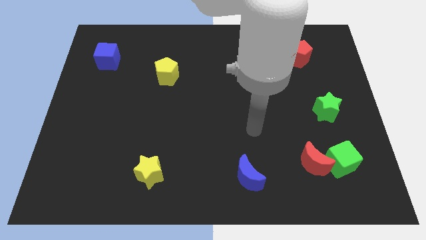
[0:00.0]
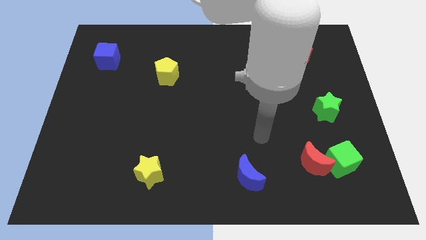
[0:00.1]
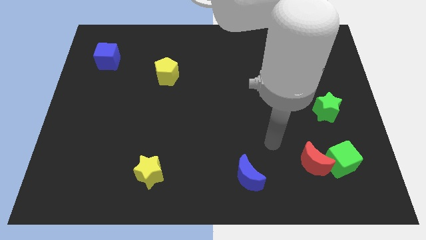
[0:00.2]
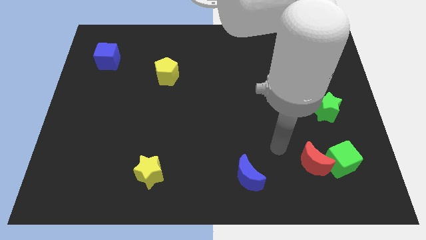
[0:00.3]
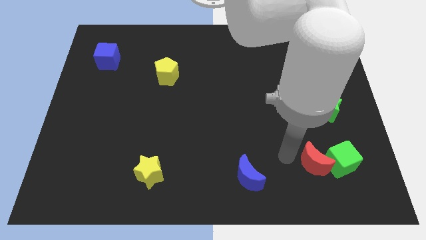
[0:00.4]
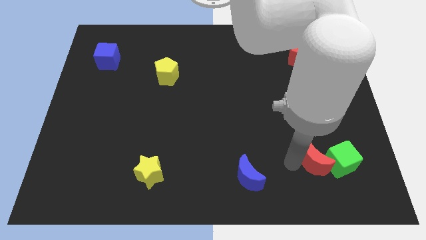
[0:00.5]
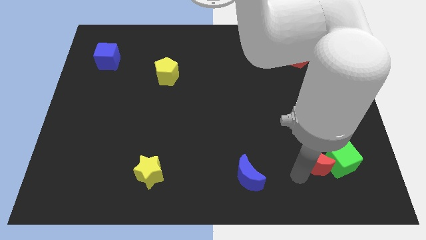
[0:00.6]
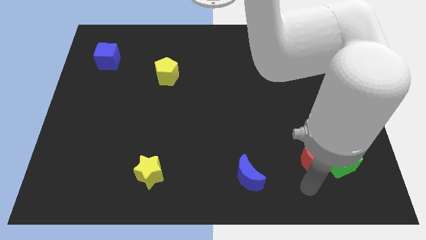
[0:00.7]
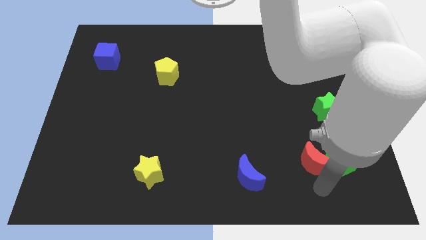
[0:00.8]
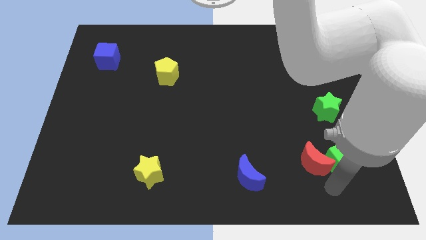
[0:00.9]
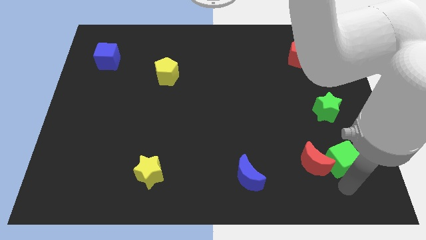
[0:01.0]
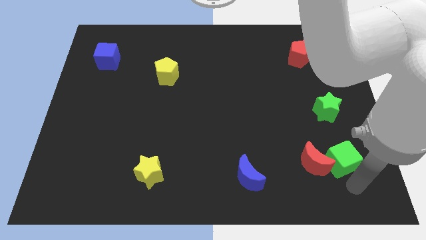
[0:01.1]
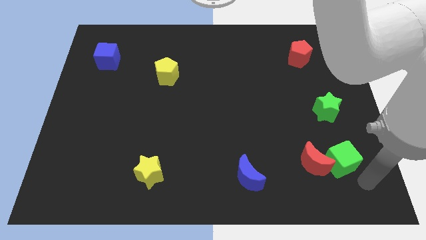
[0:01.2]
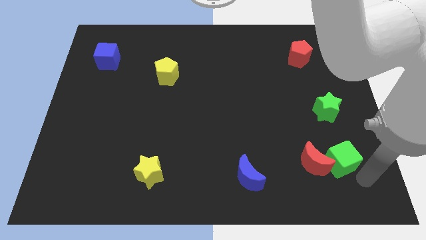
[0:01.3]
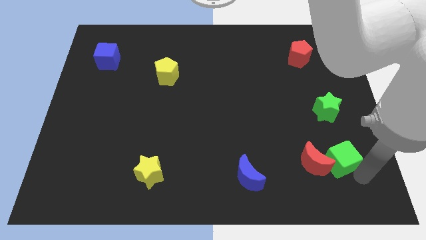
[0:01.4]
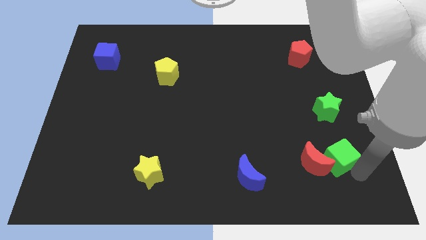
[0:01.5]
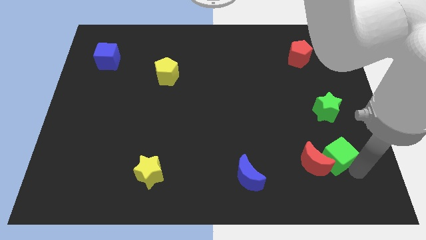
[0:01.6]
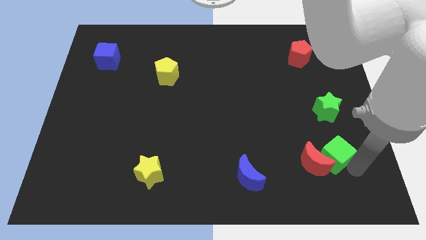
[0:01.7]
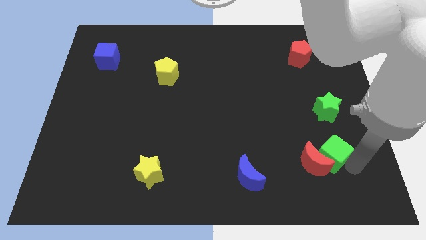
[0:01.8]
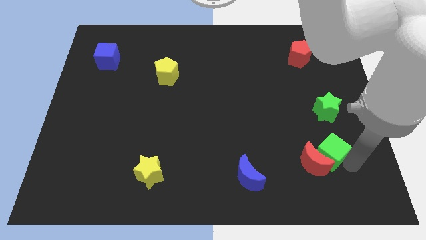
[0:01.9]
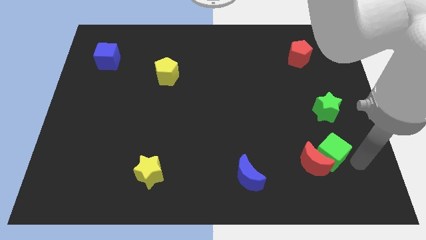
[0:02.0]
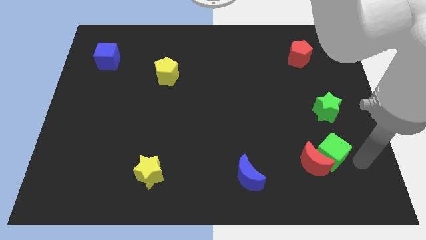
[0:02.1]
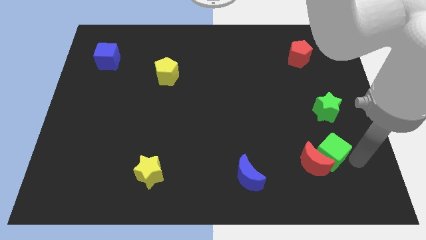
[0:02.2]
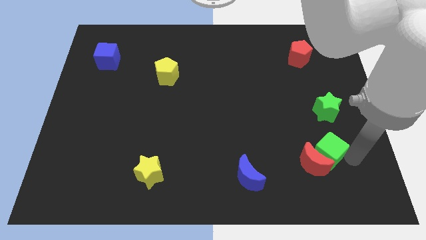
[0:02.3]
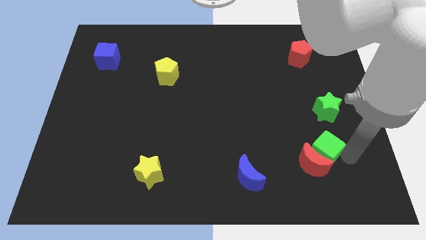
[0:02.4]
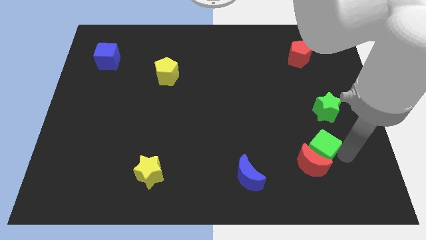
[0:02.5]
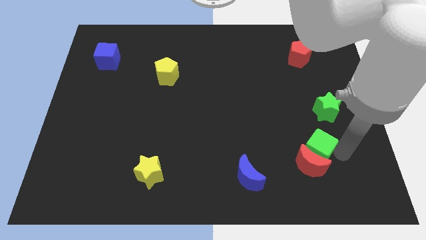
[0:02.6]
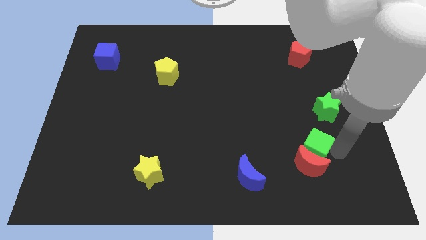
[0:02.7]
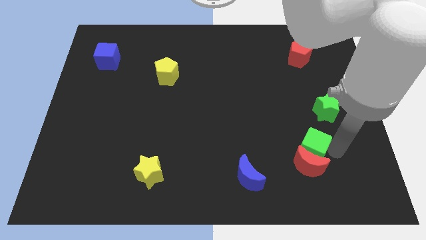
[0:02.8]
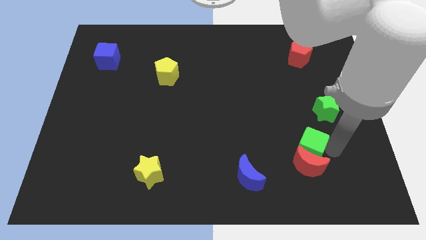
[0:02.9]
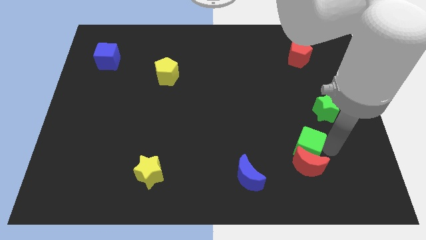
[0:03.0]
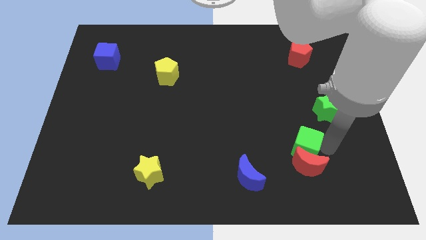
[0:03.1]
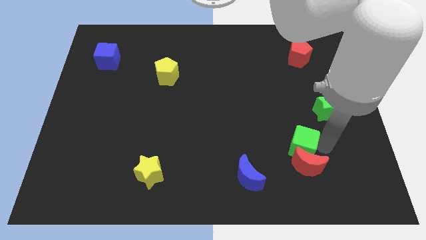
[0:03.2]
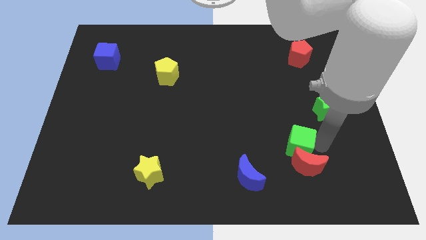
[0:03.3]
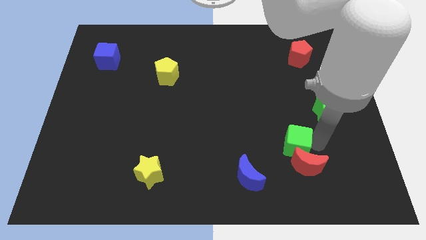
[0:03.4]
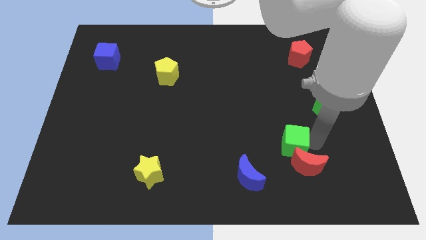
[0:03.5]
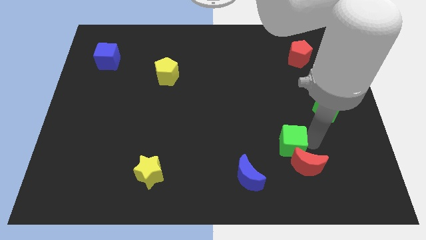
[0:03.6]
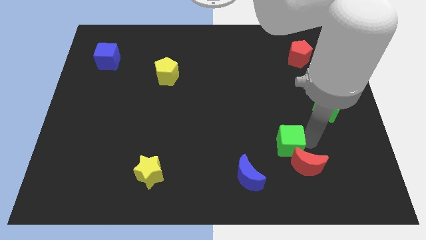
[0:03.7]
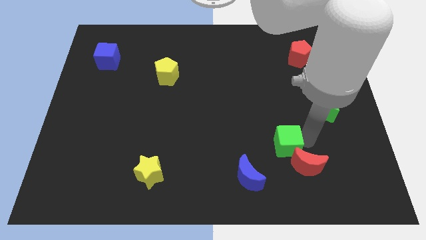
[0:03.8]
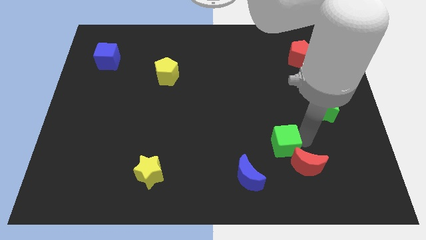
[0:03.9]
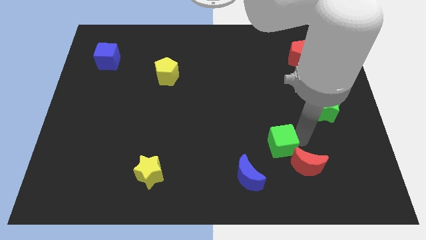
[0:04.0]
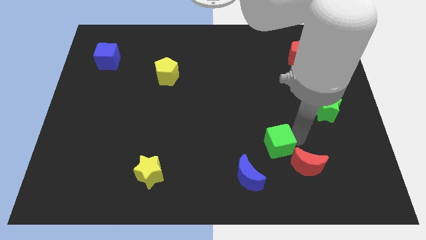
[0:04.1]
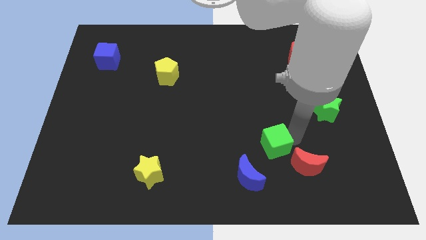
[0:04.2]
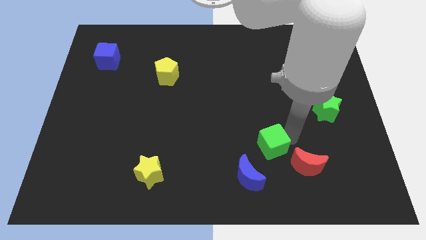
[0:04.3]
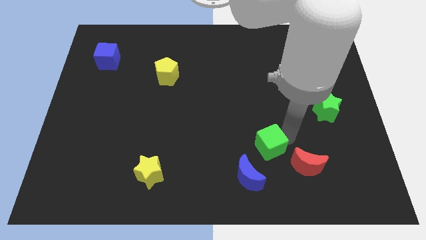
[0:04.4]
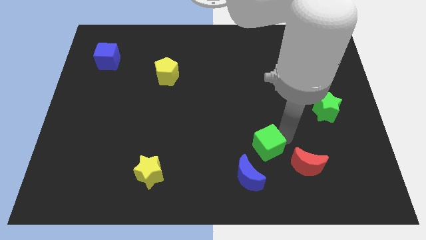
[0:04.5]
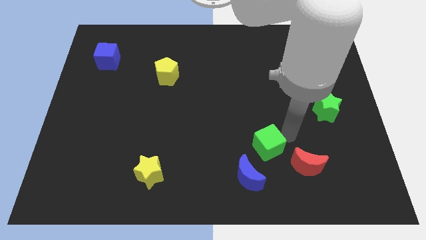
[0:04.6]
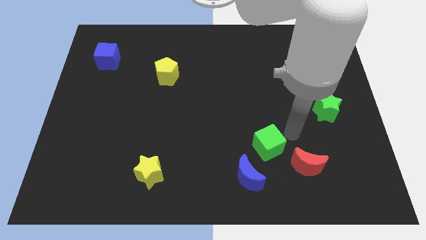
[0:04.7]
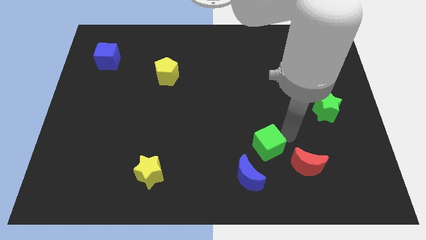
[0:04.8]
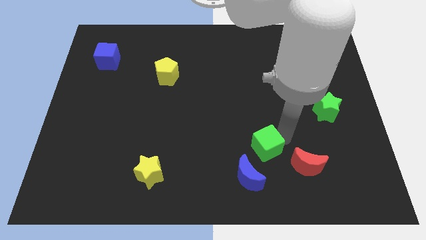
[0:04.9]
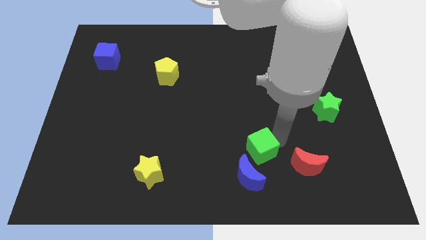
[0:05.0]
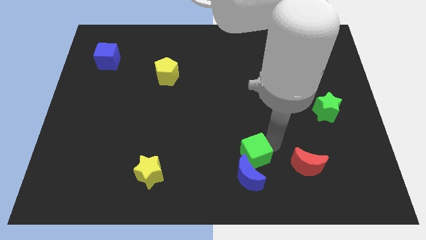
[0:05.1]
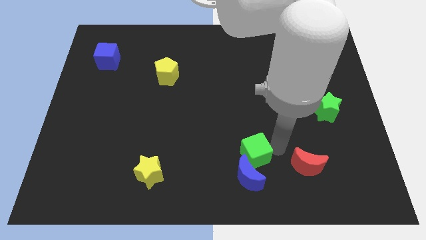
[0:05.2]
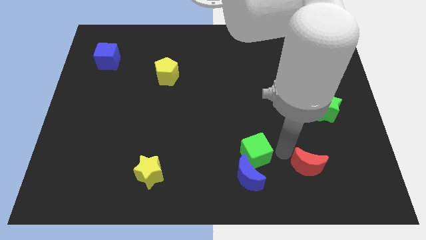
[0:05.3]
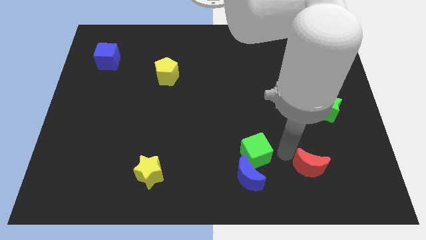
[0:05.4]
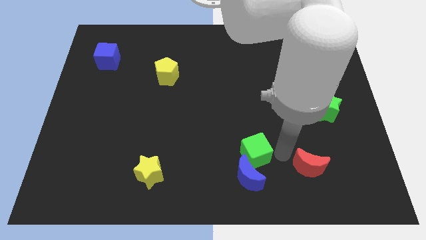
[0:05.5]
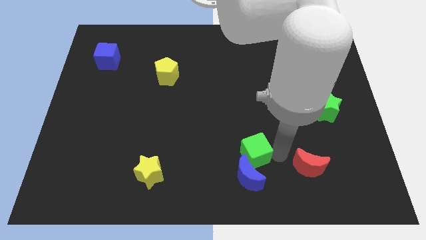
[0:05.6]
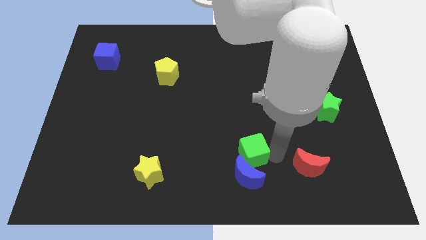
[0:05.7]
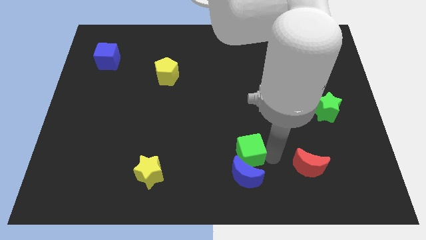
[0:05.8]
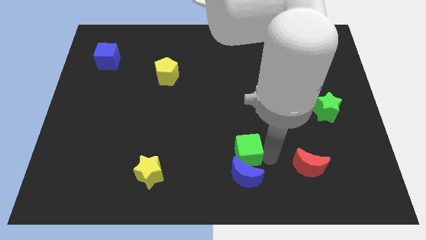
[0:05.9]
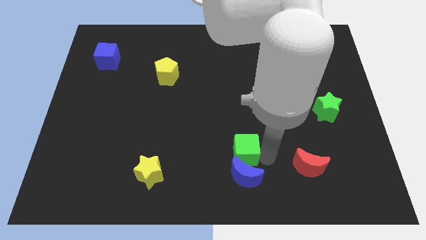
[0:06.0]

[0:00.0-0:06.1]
slide the green cube to the left

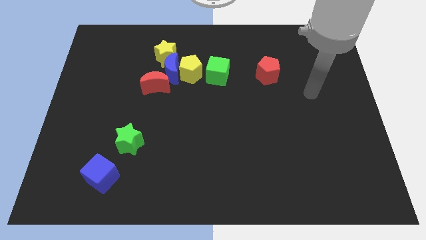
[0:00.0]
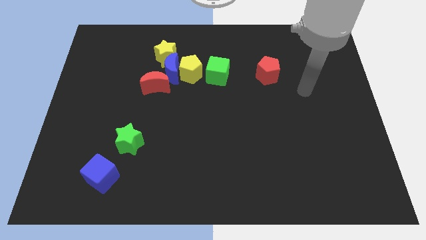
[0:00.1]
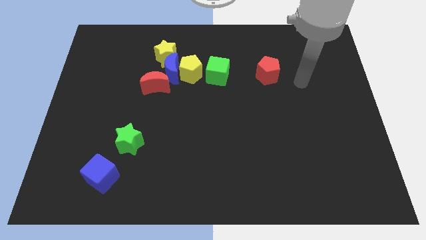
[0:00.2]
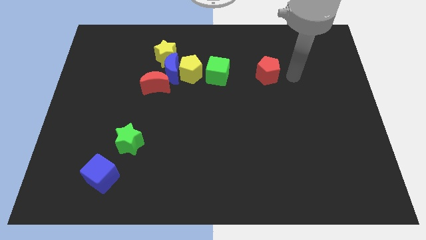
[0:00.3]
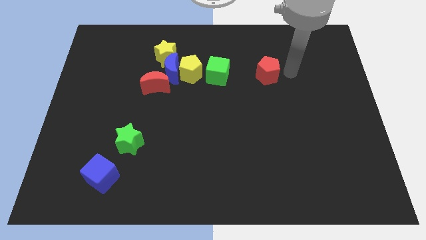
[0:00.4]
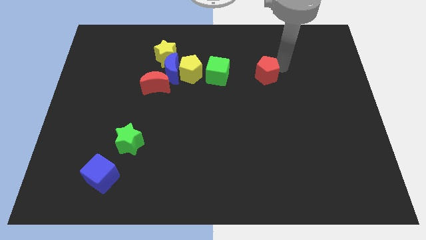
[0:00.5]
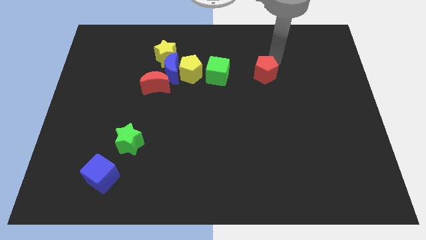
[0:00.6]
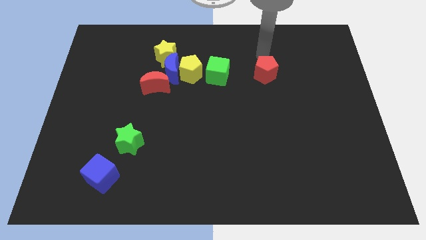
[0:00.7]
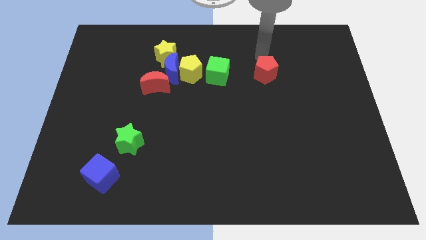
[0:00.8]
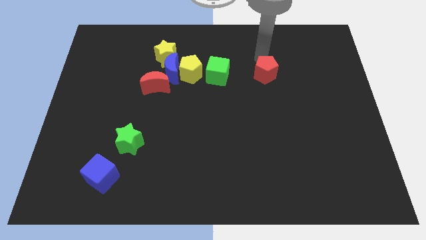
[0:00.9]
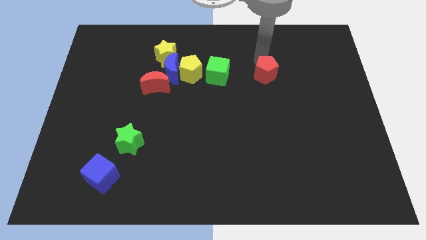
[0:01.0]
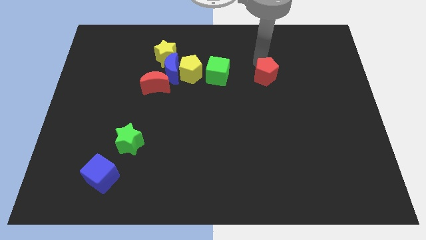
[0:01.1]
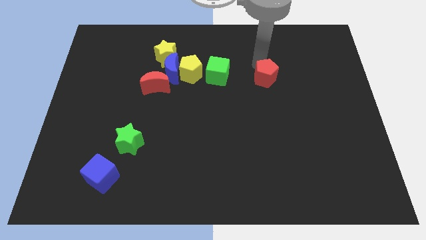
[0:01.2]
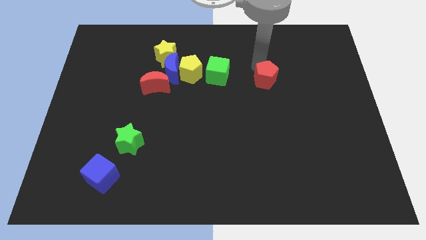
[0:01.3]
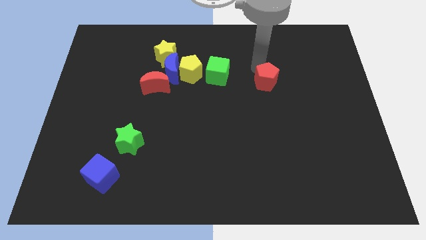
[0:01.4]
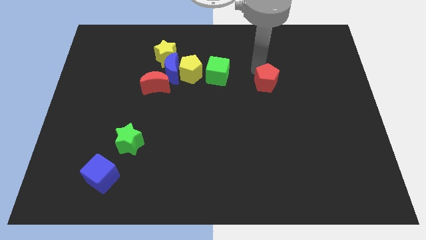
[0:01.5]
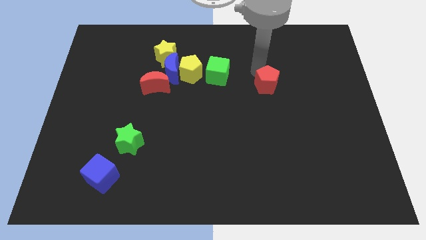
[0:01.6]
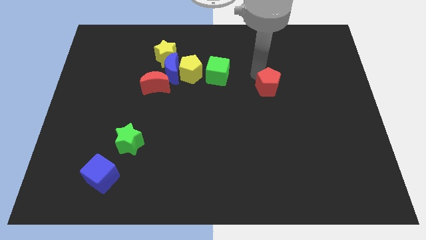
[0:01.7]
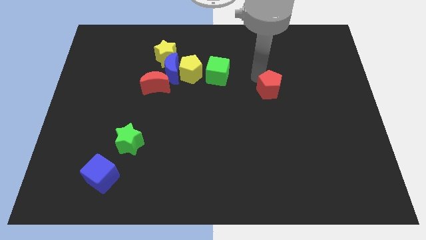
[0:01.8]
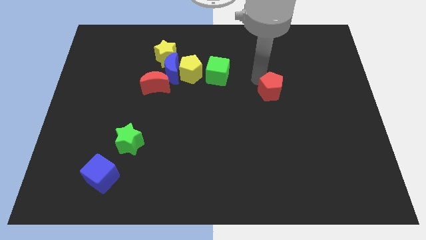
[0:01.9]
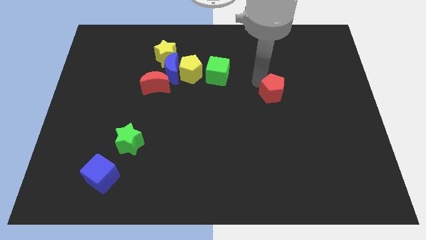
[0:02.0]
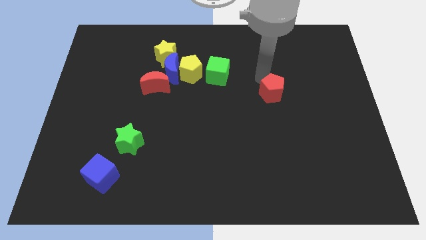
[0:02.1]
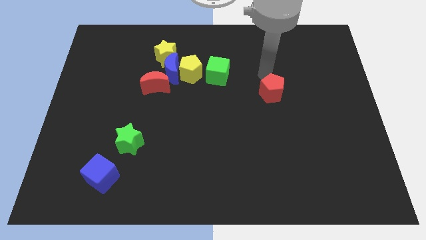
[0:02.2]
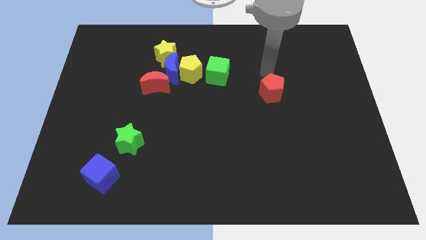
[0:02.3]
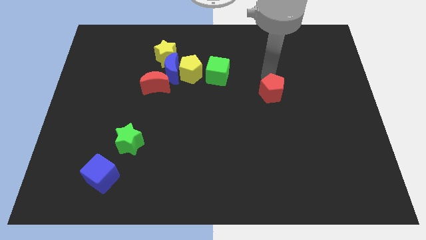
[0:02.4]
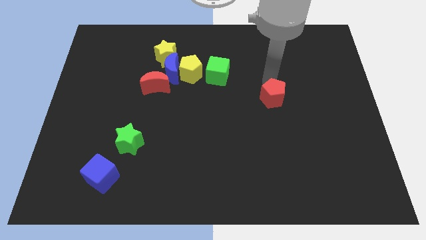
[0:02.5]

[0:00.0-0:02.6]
push the red pentagon a little bit down
